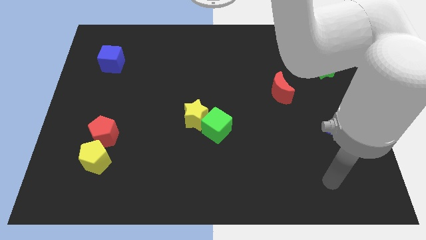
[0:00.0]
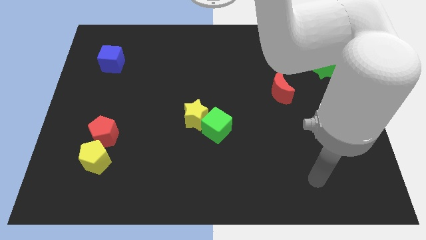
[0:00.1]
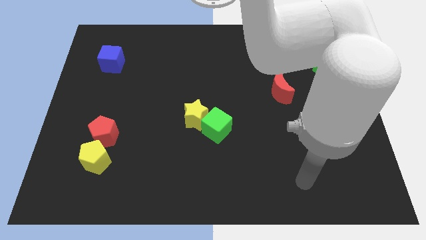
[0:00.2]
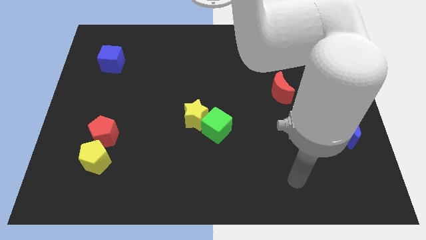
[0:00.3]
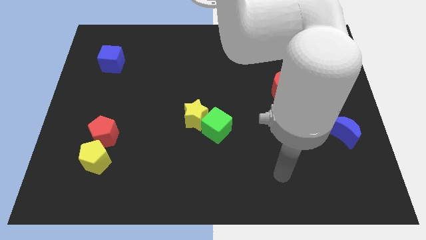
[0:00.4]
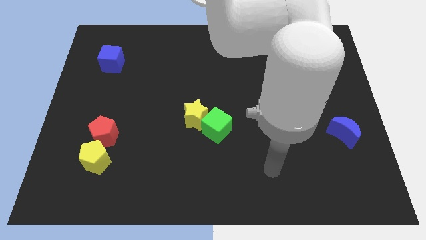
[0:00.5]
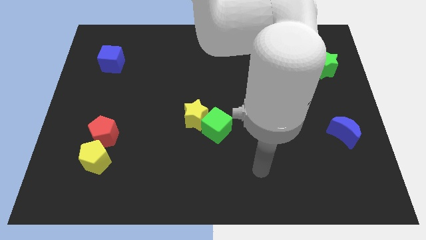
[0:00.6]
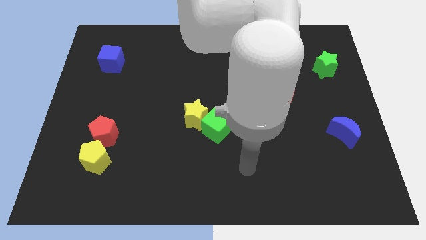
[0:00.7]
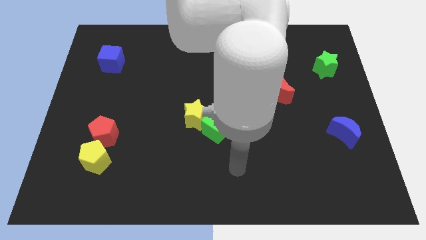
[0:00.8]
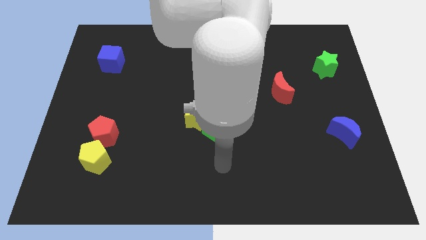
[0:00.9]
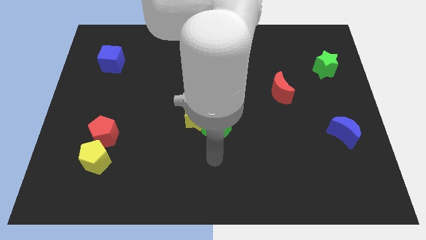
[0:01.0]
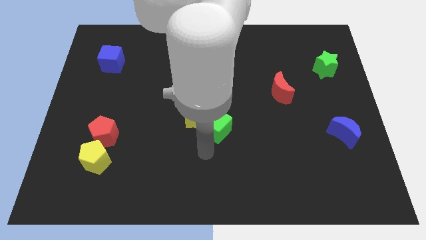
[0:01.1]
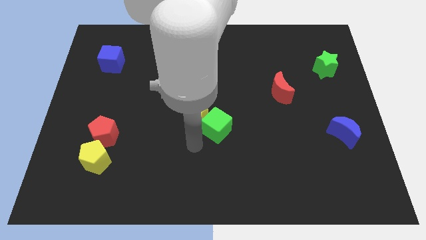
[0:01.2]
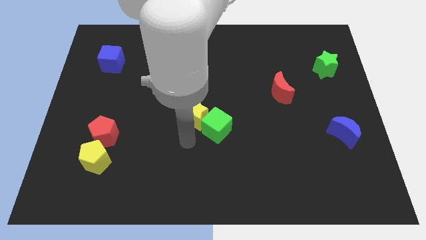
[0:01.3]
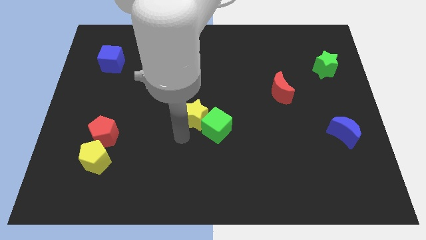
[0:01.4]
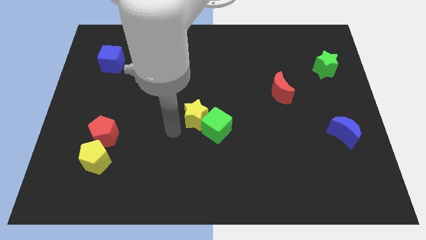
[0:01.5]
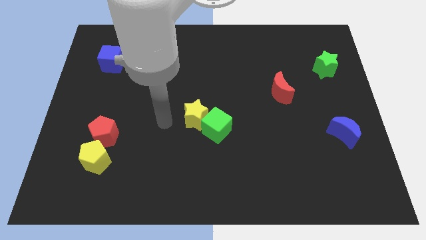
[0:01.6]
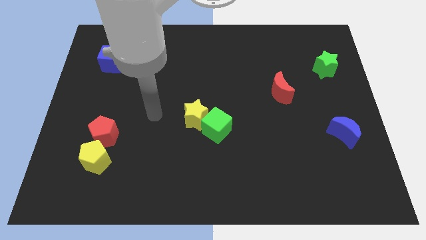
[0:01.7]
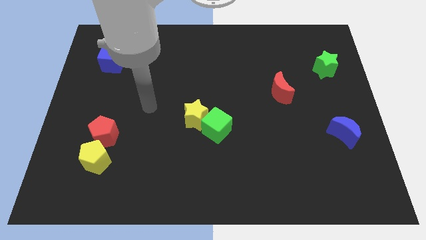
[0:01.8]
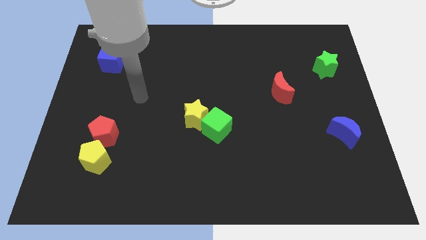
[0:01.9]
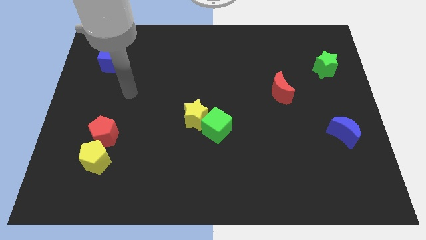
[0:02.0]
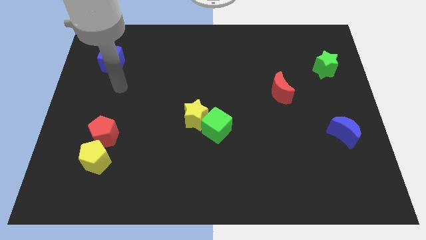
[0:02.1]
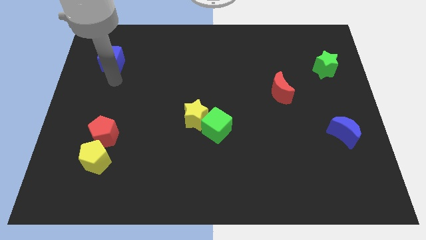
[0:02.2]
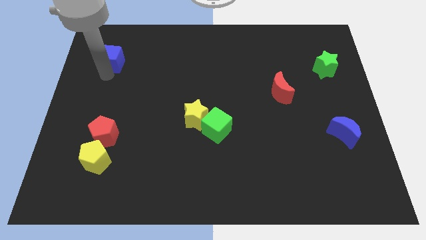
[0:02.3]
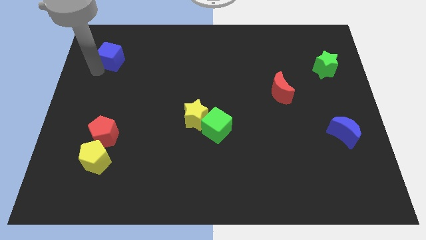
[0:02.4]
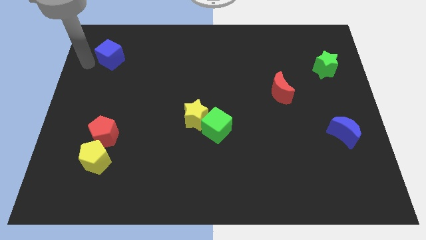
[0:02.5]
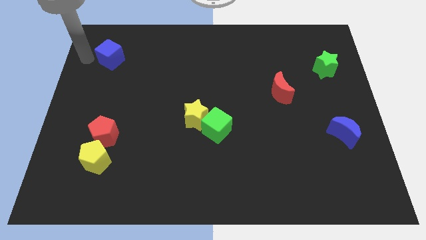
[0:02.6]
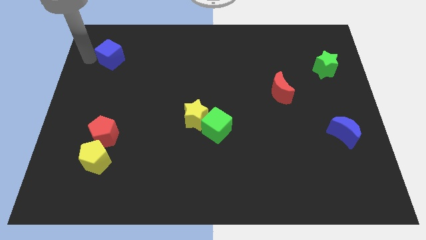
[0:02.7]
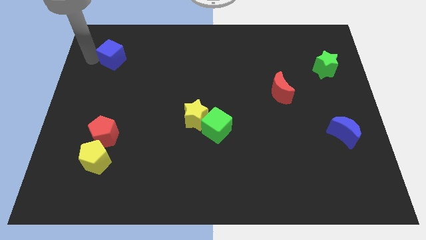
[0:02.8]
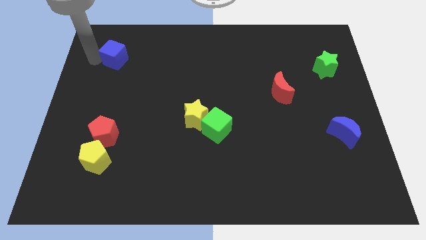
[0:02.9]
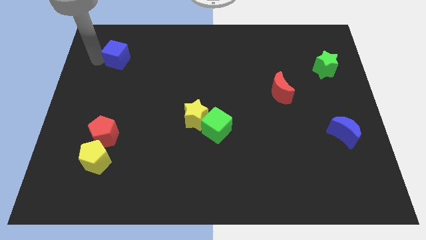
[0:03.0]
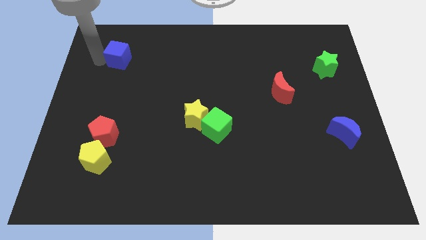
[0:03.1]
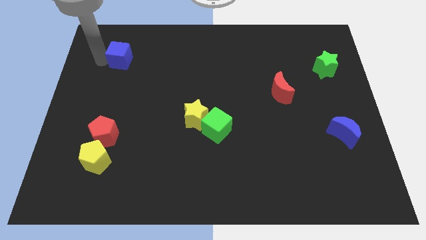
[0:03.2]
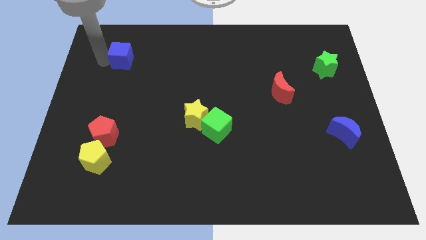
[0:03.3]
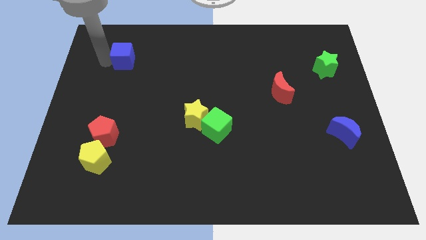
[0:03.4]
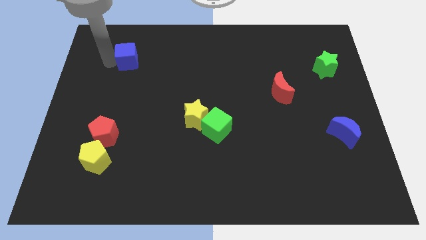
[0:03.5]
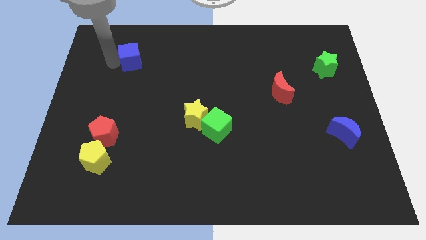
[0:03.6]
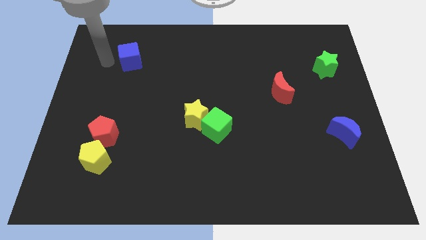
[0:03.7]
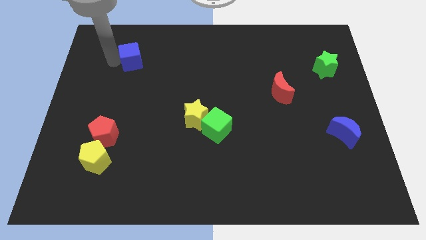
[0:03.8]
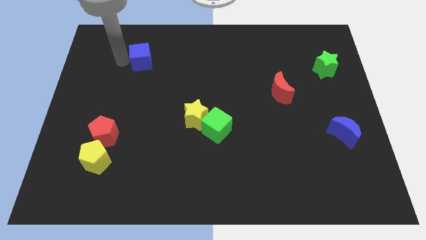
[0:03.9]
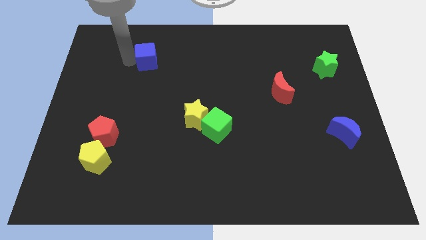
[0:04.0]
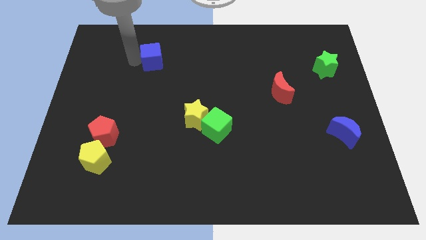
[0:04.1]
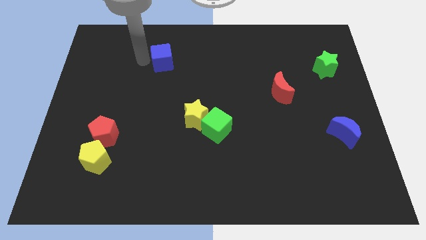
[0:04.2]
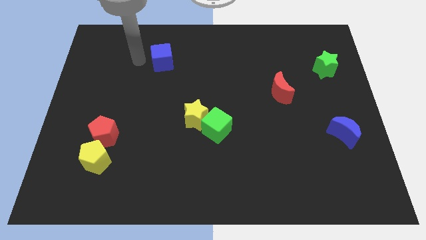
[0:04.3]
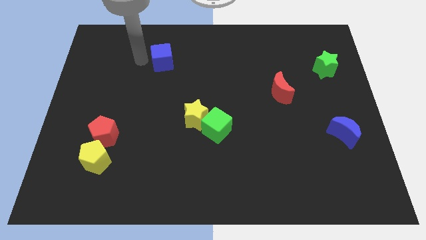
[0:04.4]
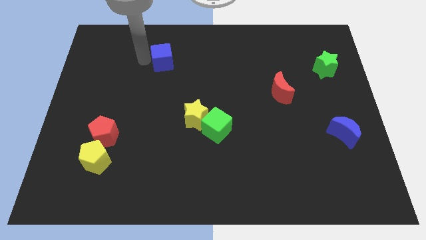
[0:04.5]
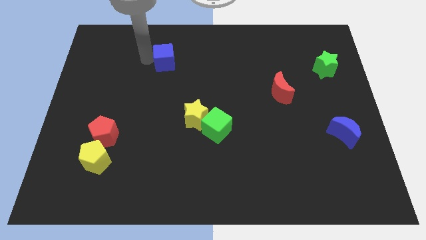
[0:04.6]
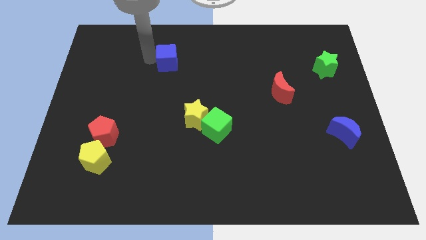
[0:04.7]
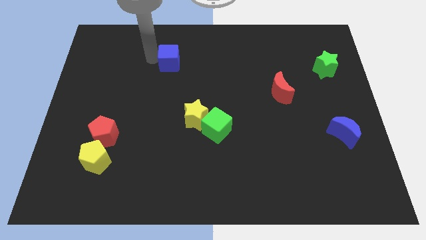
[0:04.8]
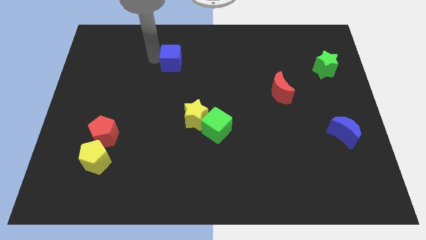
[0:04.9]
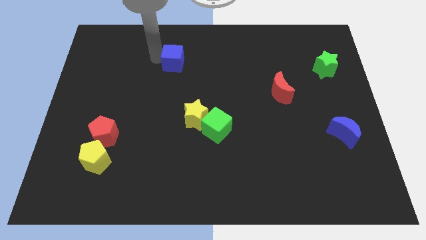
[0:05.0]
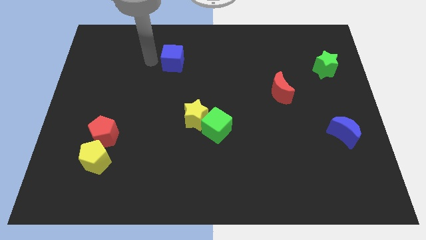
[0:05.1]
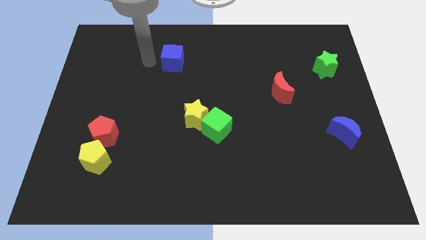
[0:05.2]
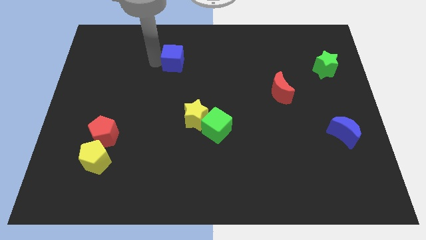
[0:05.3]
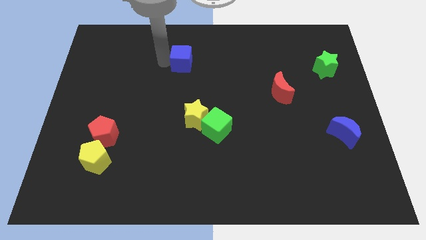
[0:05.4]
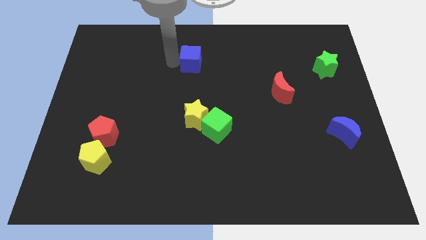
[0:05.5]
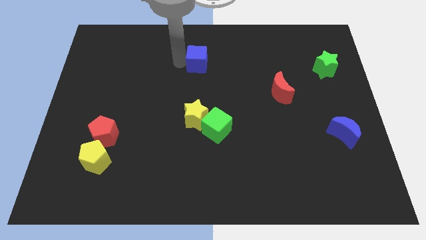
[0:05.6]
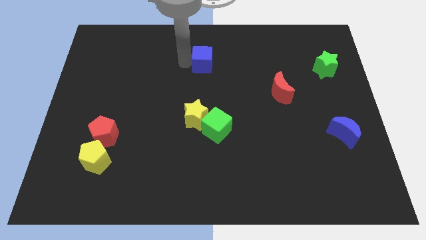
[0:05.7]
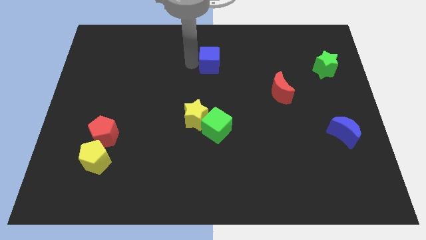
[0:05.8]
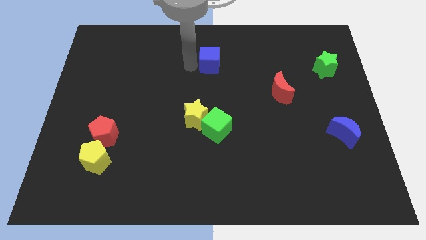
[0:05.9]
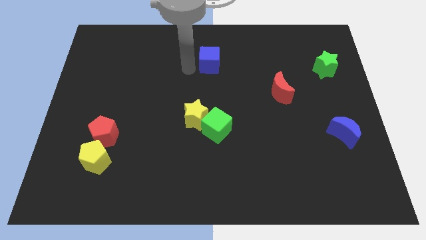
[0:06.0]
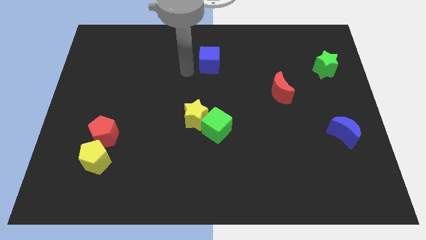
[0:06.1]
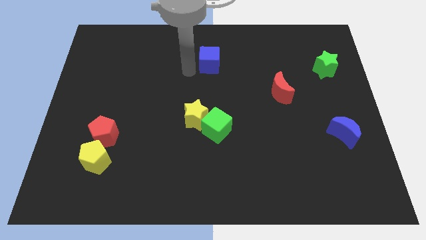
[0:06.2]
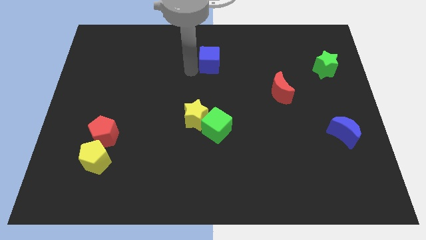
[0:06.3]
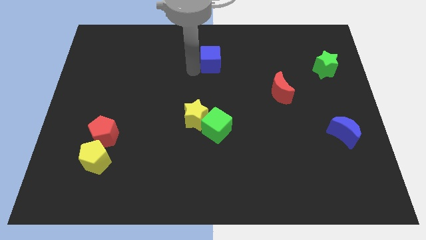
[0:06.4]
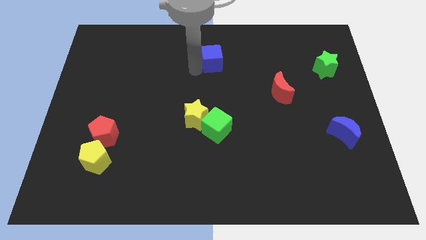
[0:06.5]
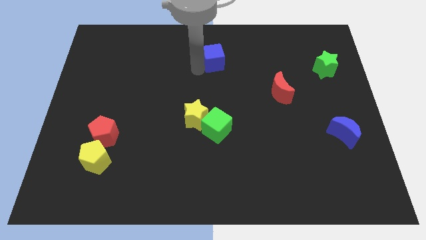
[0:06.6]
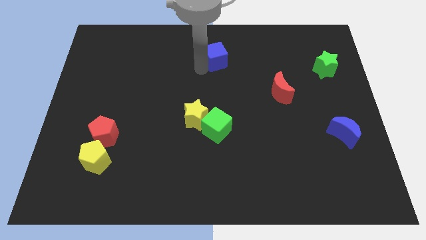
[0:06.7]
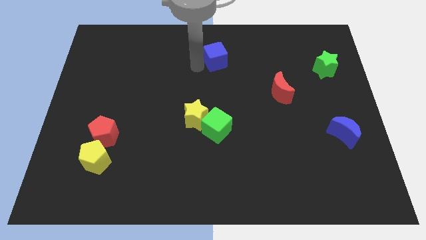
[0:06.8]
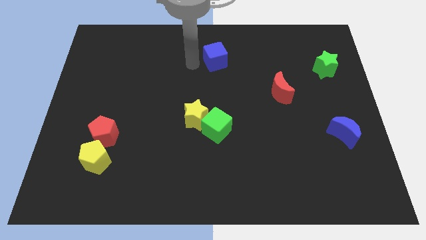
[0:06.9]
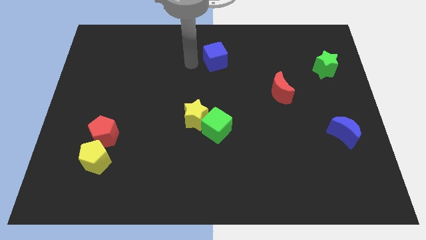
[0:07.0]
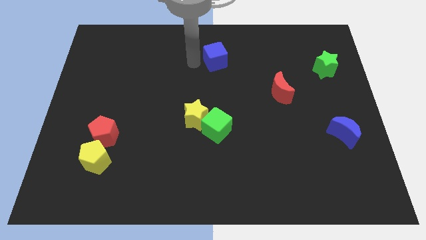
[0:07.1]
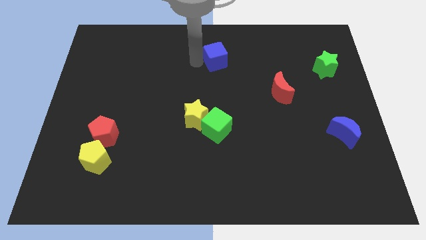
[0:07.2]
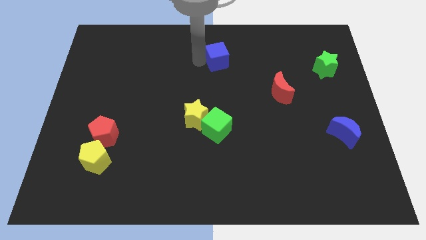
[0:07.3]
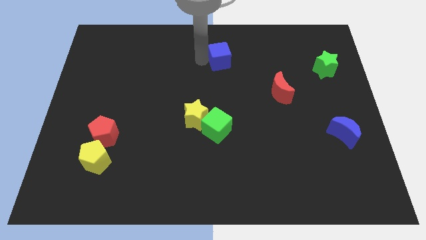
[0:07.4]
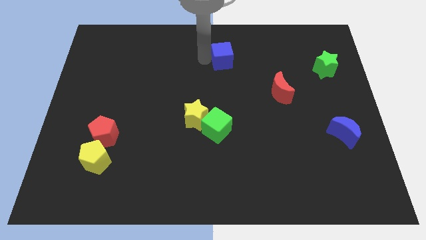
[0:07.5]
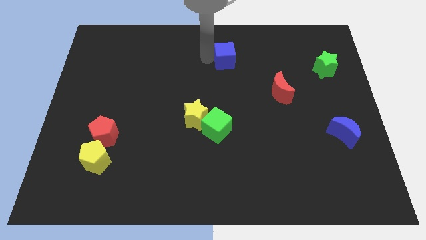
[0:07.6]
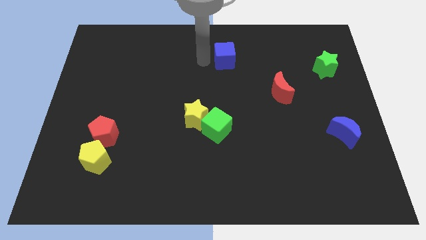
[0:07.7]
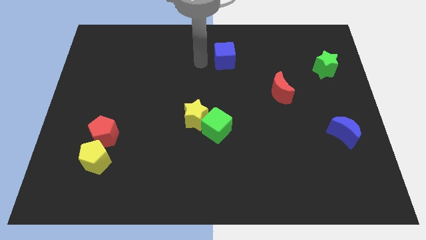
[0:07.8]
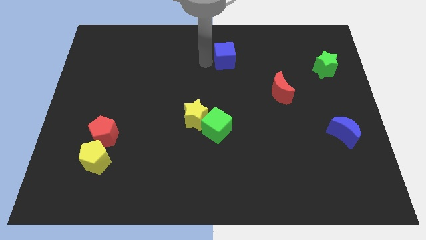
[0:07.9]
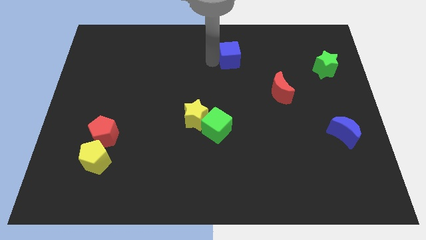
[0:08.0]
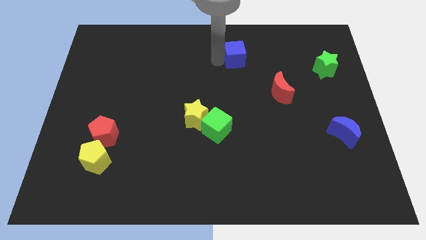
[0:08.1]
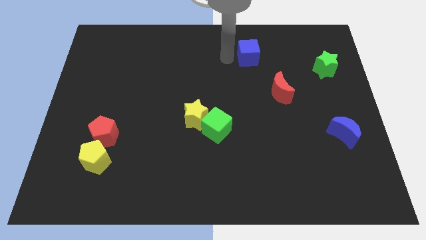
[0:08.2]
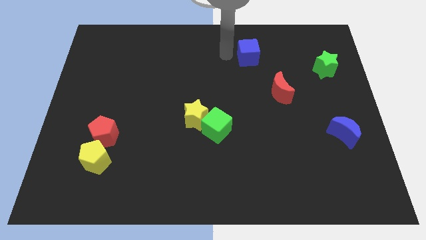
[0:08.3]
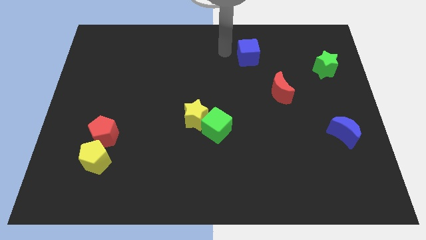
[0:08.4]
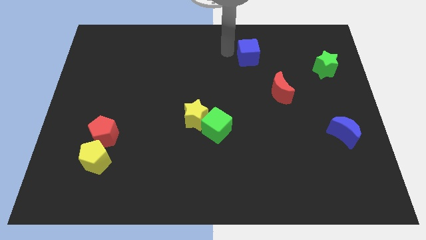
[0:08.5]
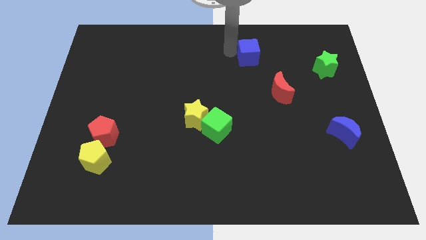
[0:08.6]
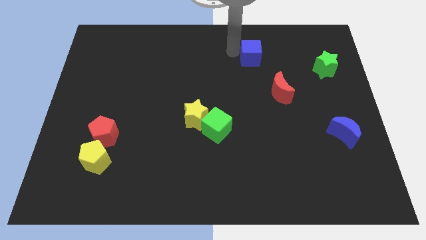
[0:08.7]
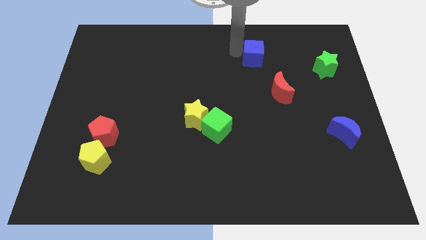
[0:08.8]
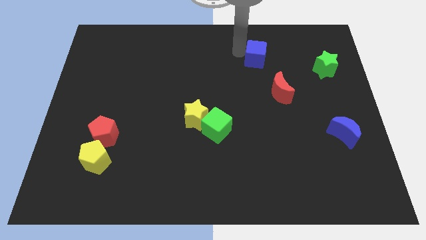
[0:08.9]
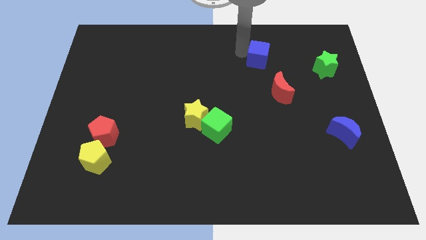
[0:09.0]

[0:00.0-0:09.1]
move the blue cube to the top side of the red moon
